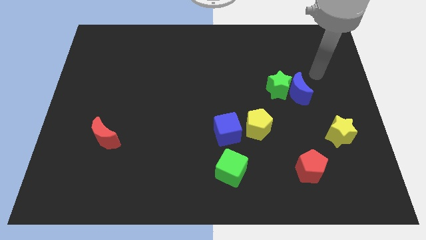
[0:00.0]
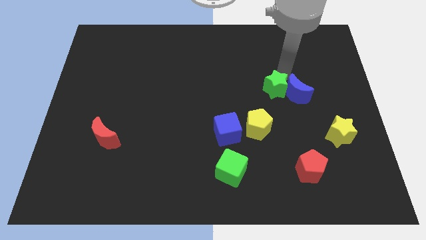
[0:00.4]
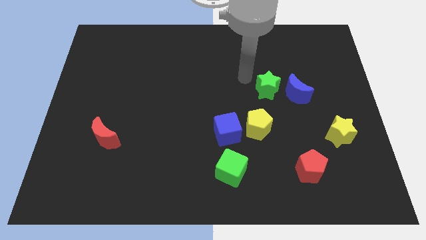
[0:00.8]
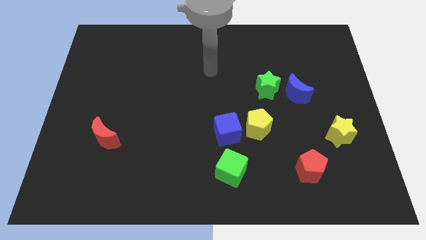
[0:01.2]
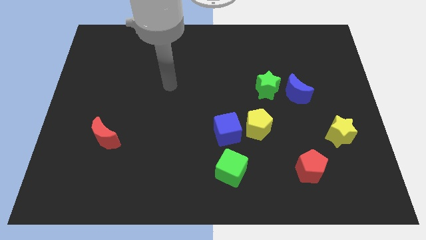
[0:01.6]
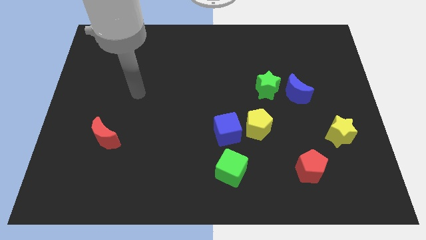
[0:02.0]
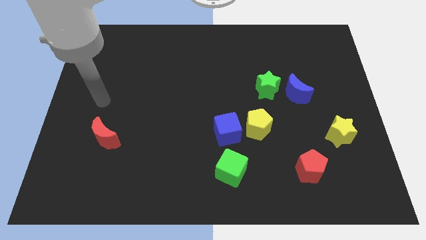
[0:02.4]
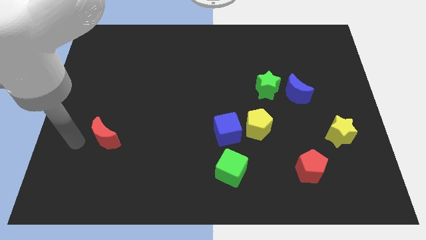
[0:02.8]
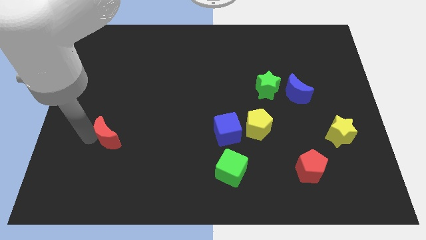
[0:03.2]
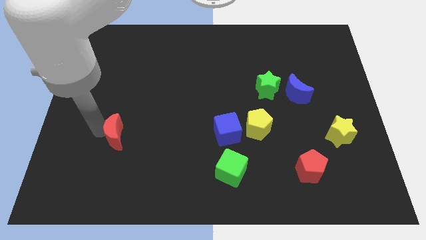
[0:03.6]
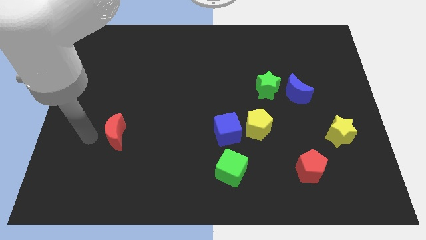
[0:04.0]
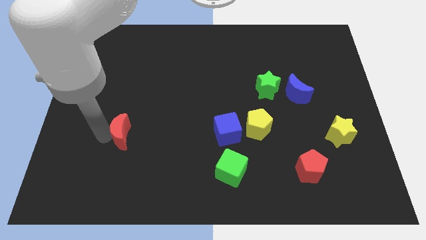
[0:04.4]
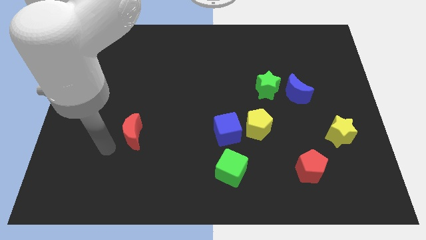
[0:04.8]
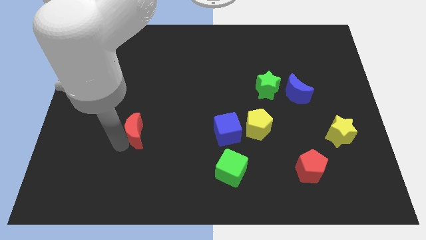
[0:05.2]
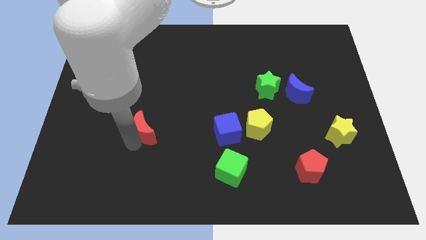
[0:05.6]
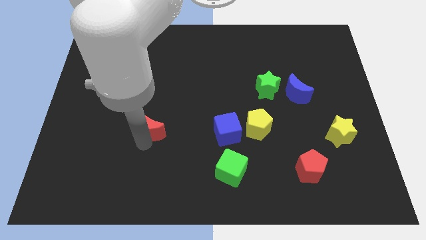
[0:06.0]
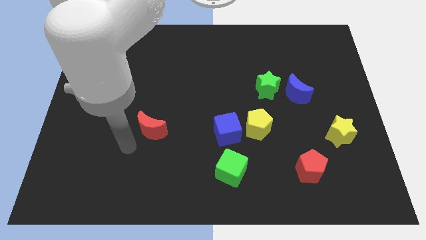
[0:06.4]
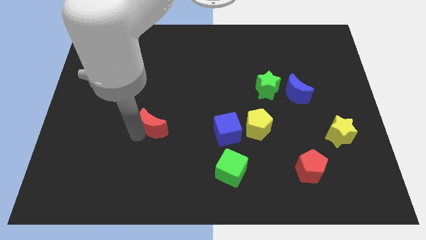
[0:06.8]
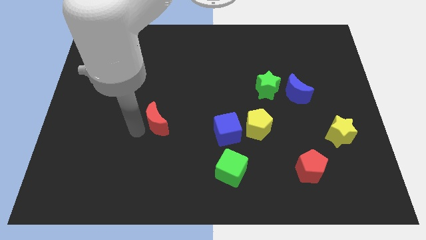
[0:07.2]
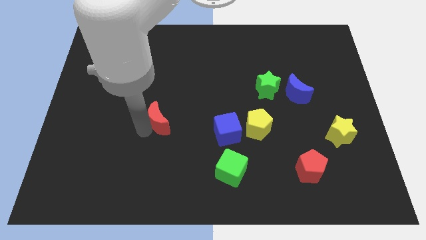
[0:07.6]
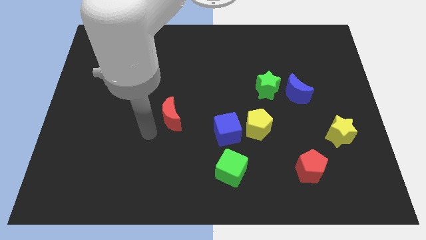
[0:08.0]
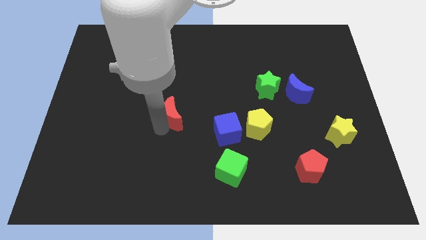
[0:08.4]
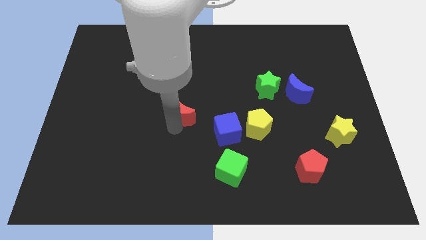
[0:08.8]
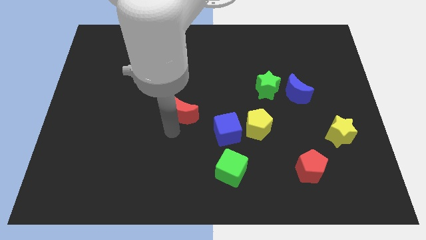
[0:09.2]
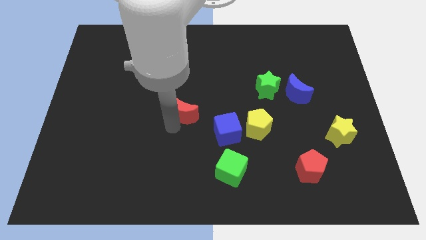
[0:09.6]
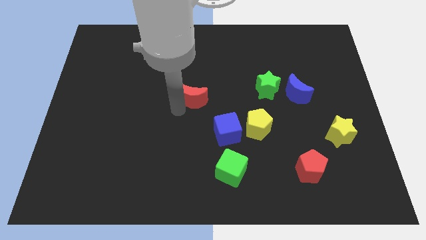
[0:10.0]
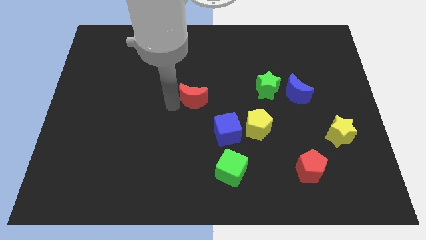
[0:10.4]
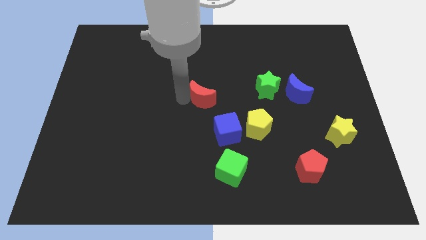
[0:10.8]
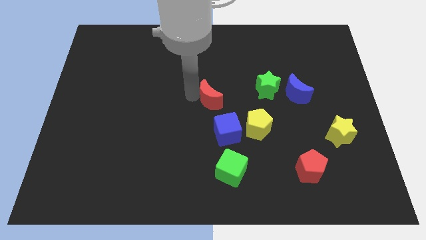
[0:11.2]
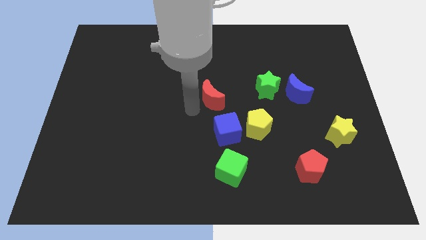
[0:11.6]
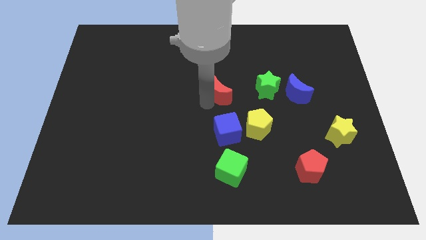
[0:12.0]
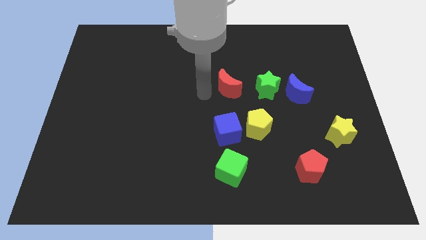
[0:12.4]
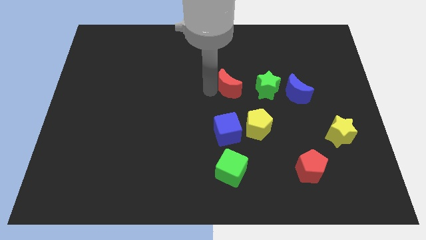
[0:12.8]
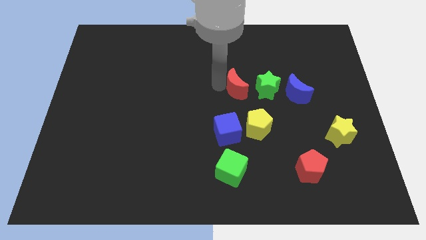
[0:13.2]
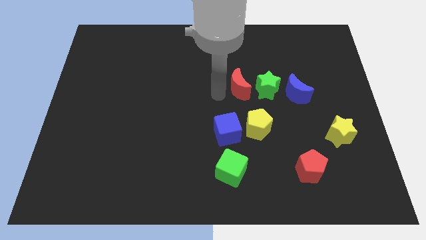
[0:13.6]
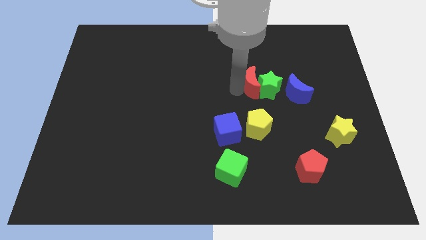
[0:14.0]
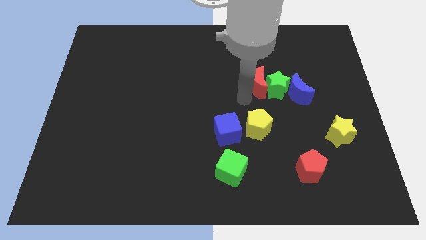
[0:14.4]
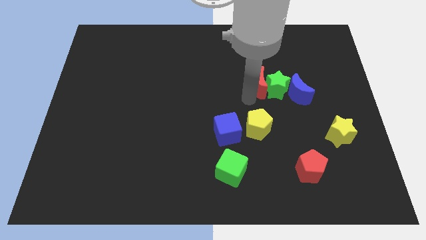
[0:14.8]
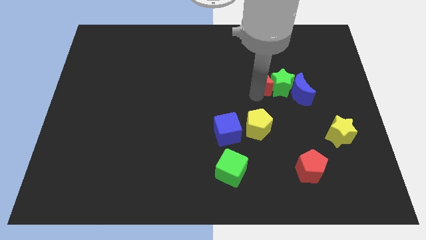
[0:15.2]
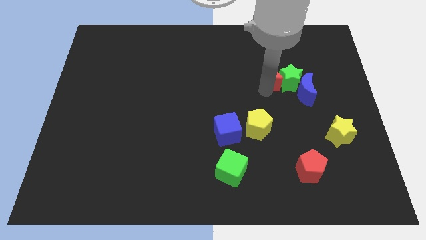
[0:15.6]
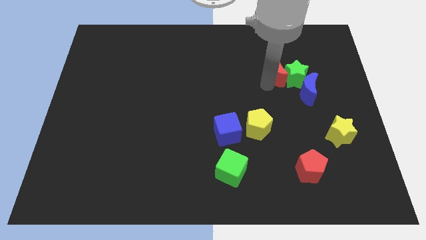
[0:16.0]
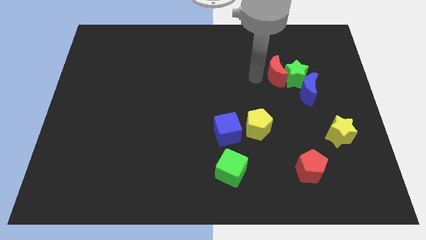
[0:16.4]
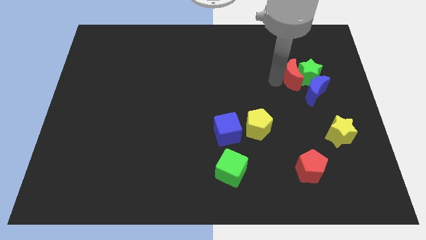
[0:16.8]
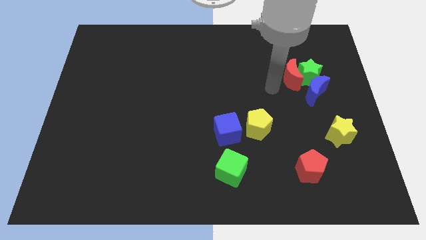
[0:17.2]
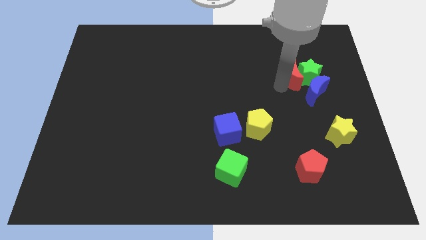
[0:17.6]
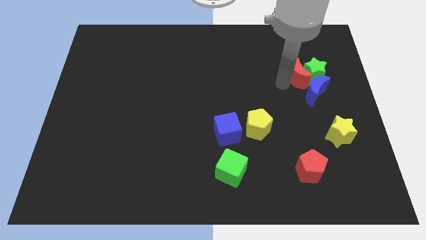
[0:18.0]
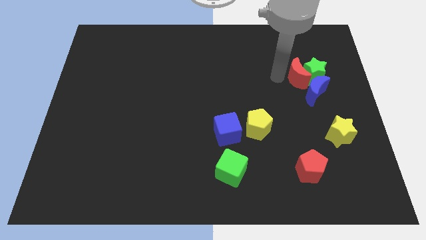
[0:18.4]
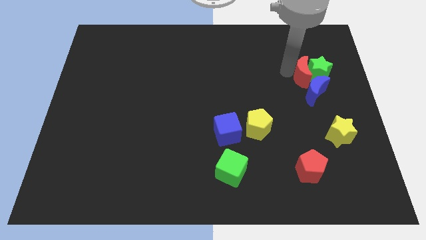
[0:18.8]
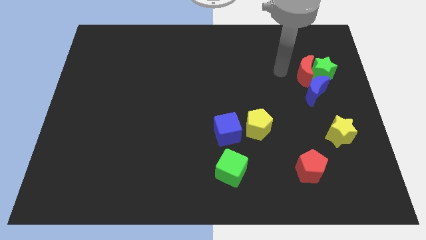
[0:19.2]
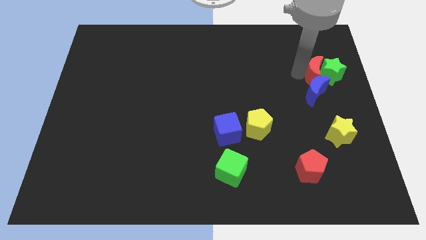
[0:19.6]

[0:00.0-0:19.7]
slide the red moon diagonally up and to the right of the blue moon

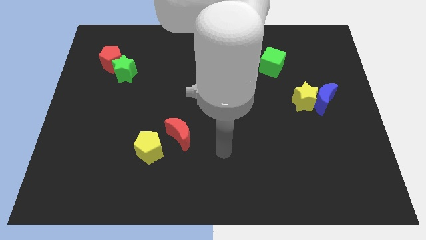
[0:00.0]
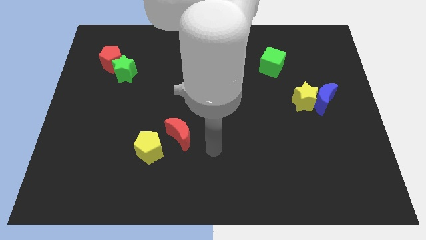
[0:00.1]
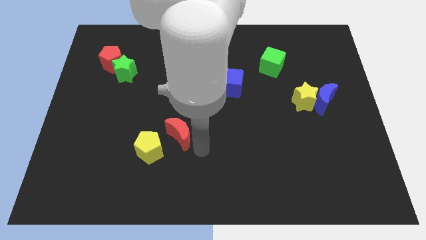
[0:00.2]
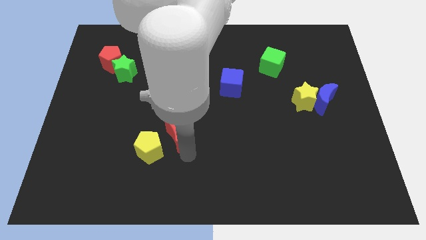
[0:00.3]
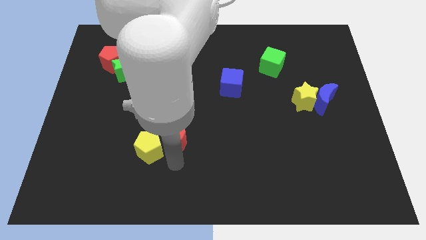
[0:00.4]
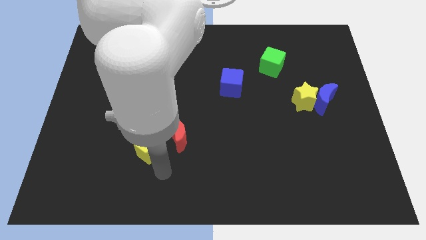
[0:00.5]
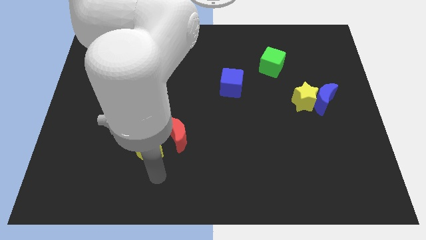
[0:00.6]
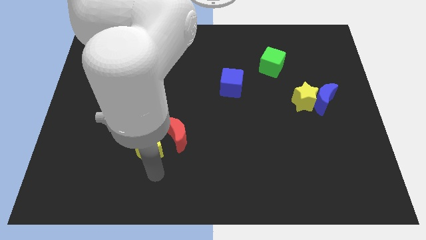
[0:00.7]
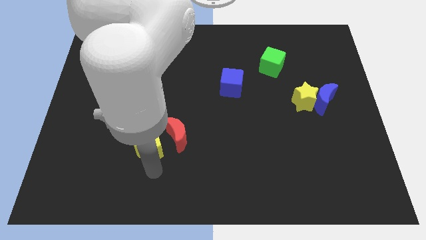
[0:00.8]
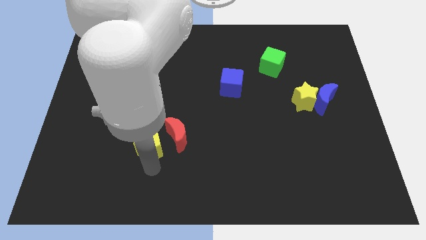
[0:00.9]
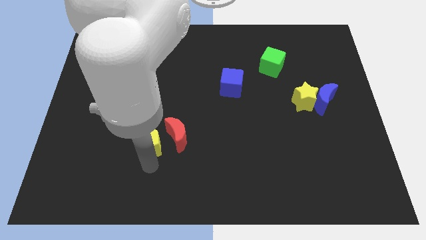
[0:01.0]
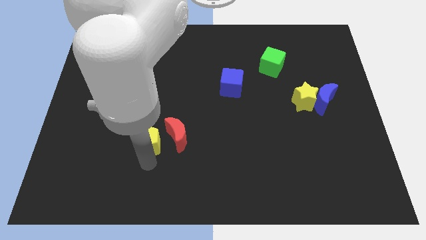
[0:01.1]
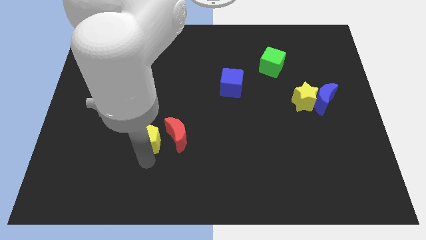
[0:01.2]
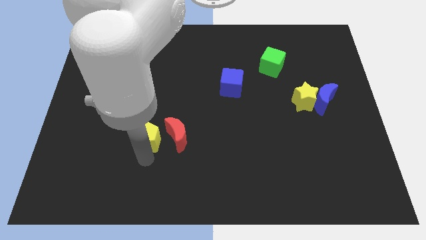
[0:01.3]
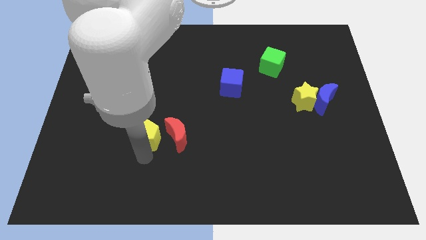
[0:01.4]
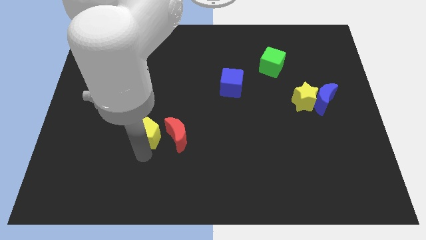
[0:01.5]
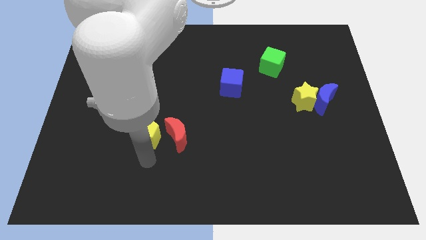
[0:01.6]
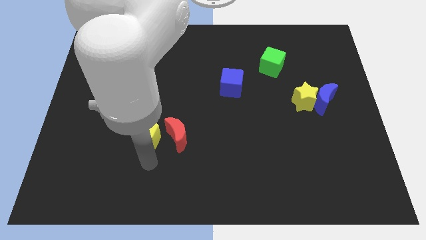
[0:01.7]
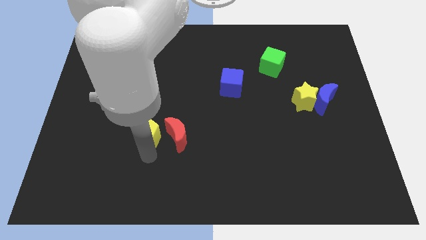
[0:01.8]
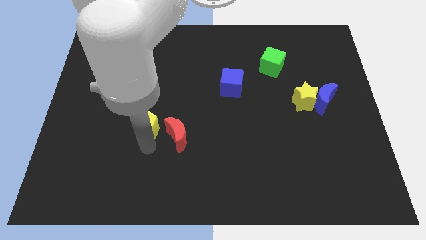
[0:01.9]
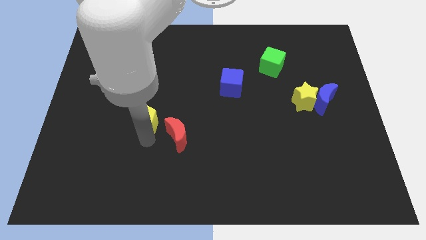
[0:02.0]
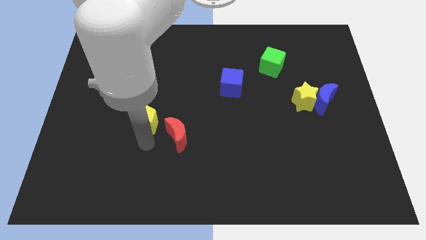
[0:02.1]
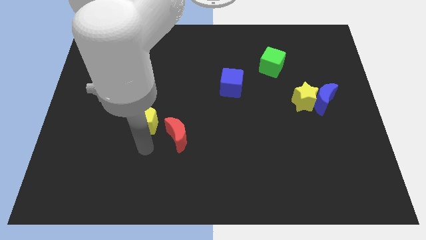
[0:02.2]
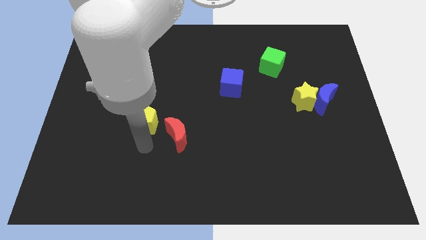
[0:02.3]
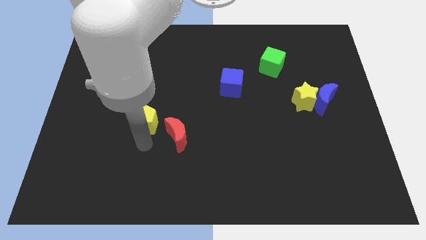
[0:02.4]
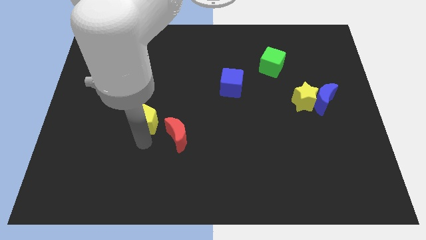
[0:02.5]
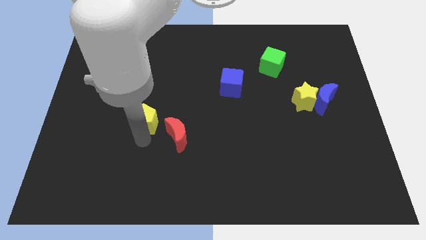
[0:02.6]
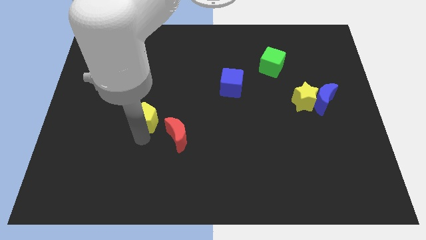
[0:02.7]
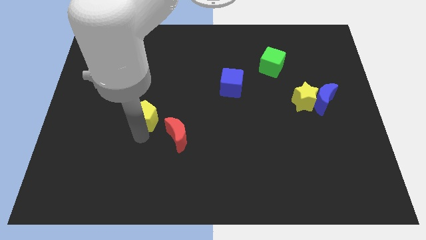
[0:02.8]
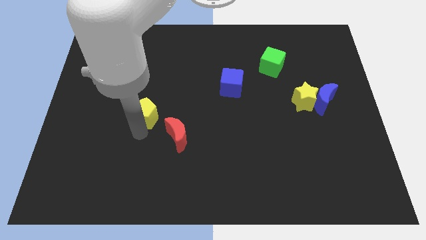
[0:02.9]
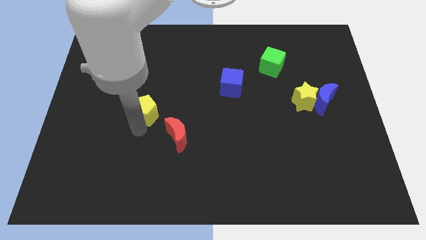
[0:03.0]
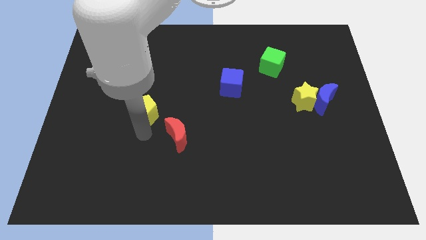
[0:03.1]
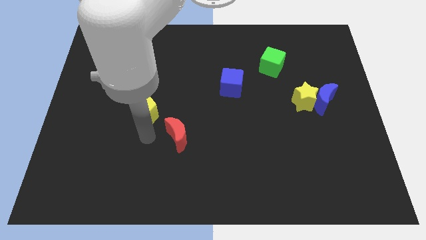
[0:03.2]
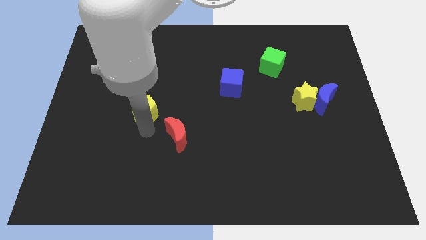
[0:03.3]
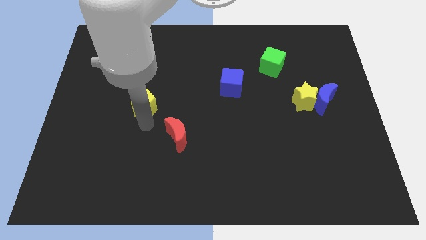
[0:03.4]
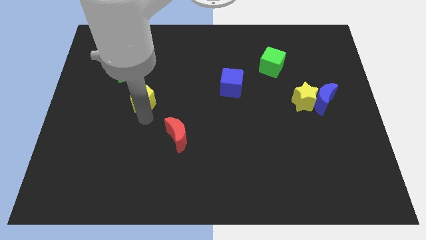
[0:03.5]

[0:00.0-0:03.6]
put the yellow pentagon to the bottom right of the green star
